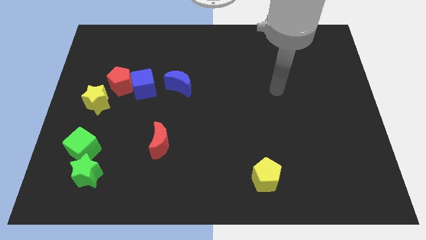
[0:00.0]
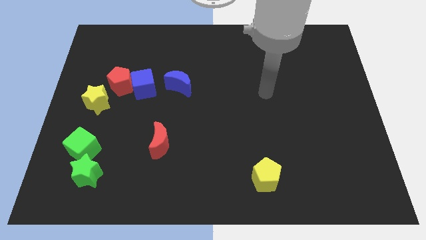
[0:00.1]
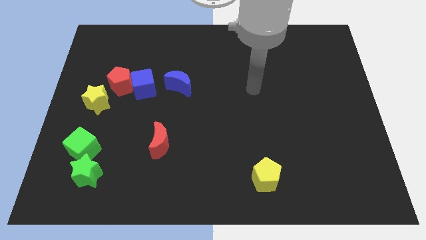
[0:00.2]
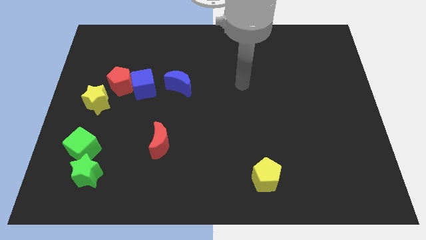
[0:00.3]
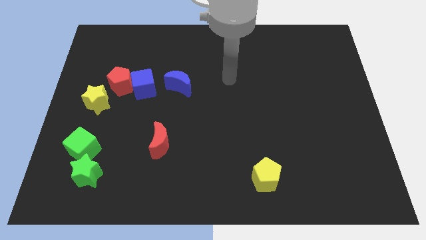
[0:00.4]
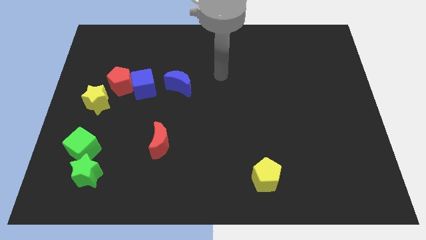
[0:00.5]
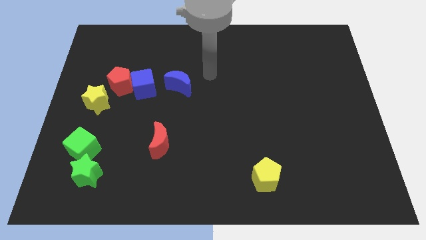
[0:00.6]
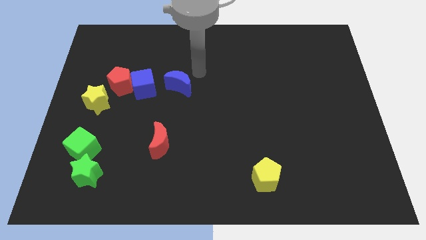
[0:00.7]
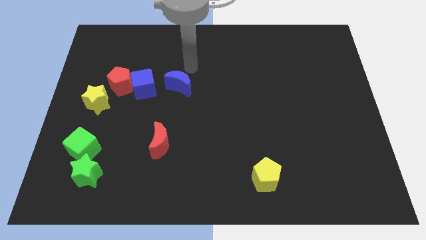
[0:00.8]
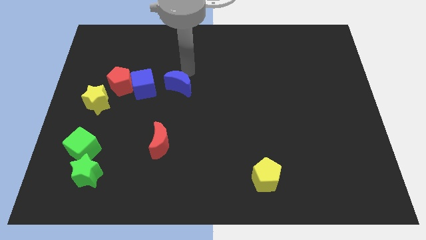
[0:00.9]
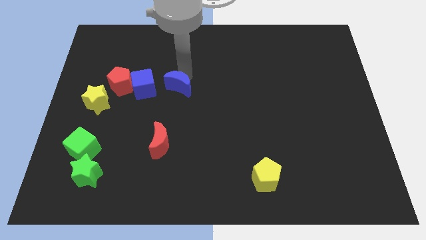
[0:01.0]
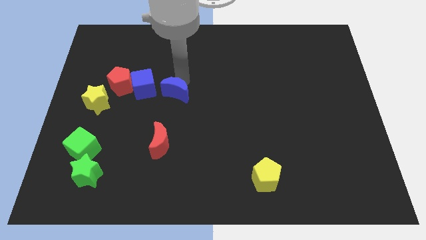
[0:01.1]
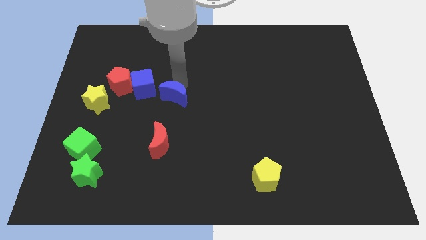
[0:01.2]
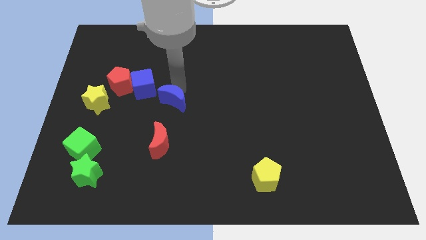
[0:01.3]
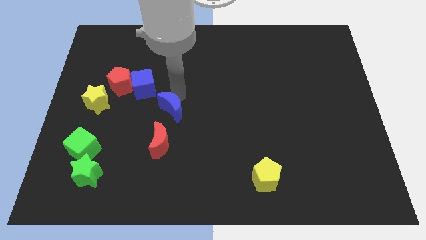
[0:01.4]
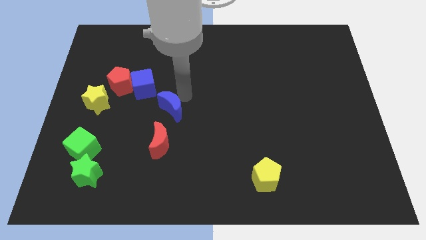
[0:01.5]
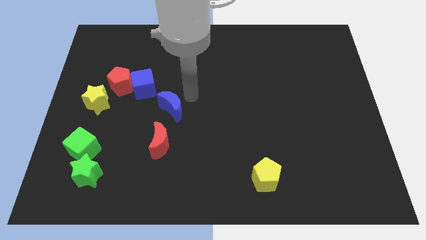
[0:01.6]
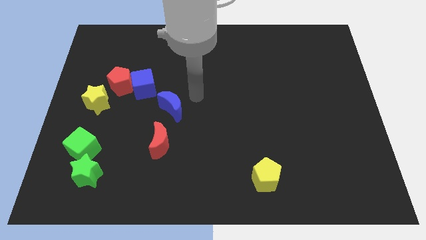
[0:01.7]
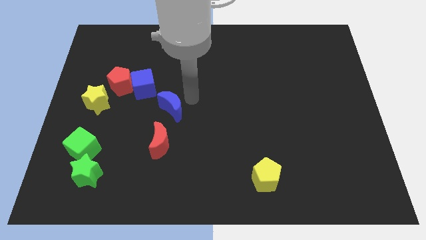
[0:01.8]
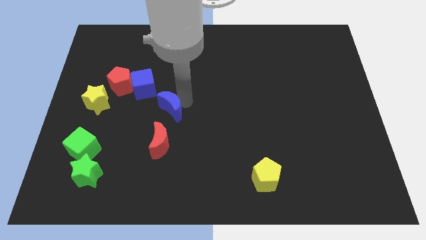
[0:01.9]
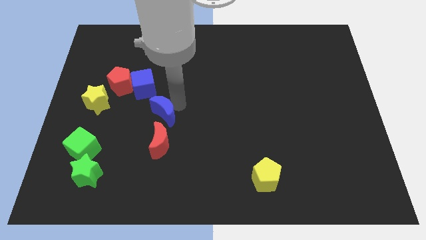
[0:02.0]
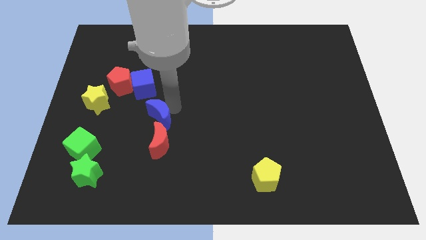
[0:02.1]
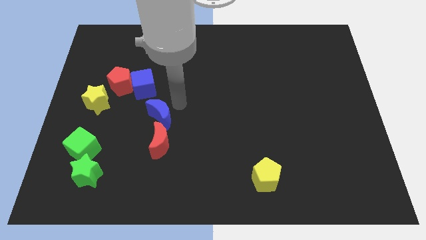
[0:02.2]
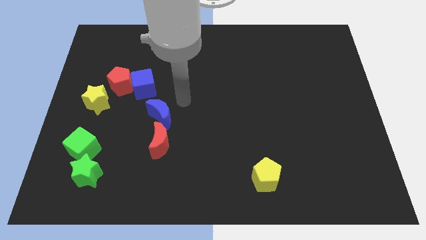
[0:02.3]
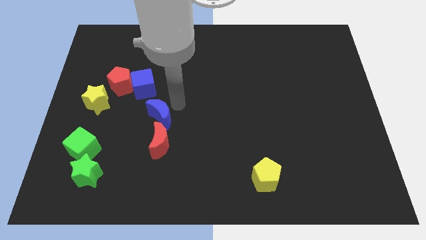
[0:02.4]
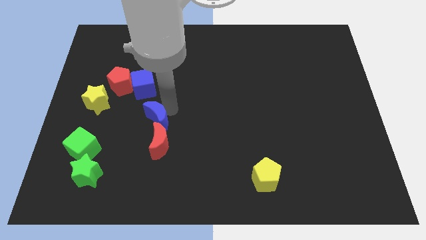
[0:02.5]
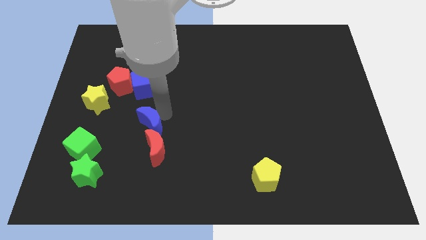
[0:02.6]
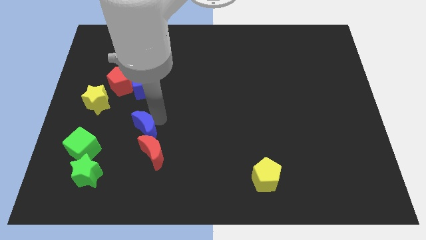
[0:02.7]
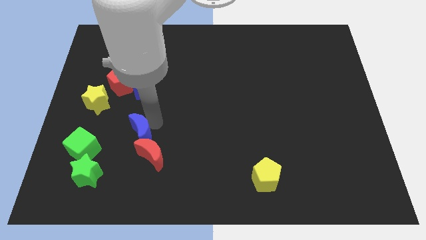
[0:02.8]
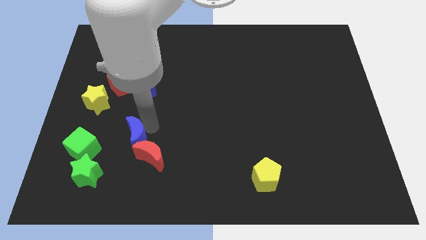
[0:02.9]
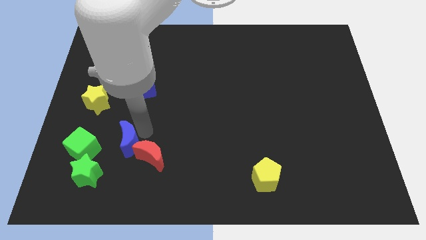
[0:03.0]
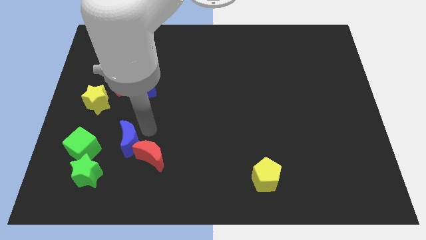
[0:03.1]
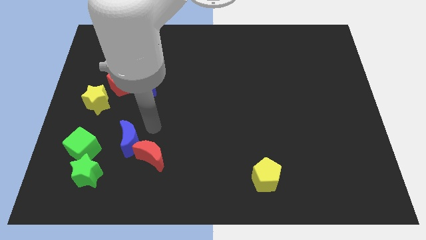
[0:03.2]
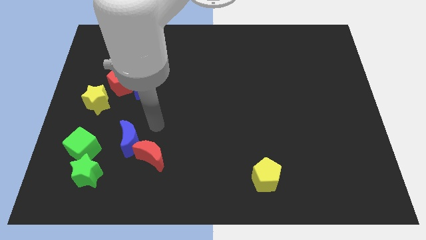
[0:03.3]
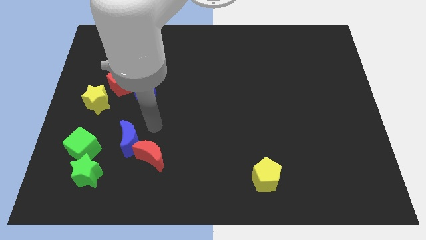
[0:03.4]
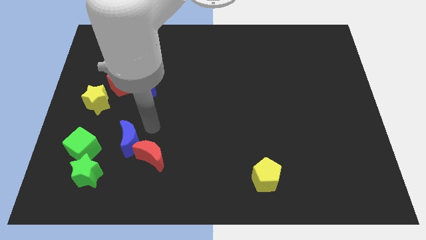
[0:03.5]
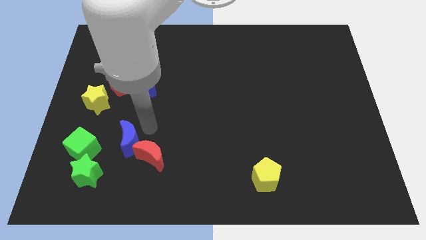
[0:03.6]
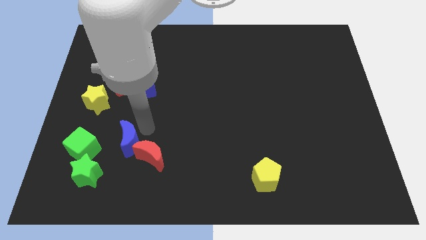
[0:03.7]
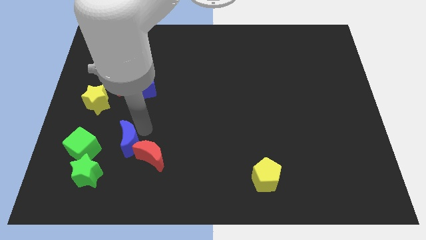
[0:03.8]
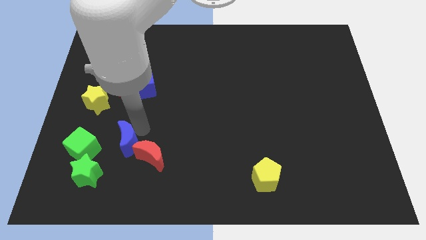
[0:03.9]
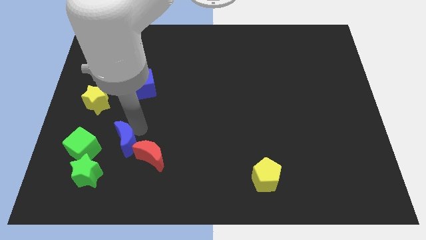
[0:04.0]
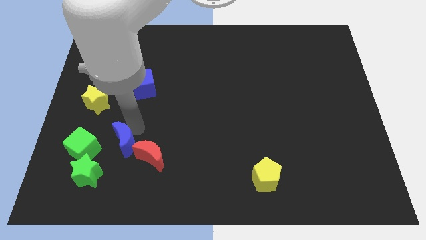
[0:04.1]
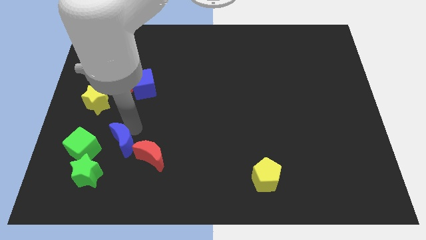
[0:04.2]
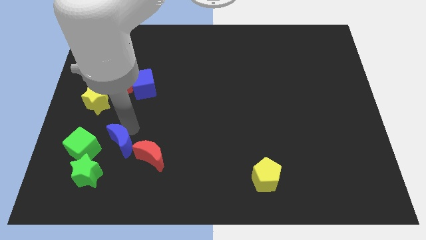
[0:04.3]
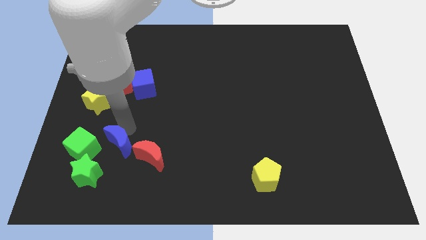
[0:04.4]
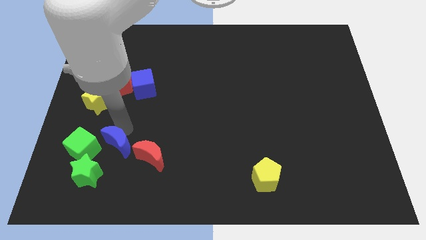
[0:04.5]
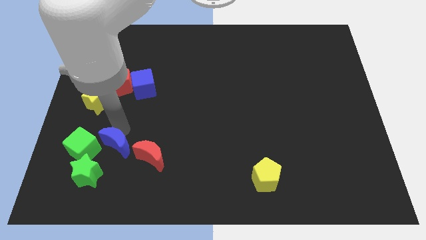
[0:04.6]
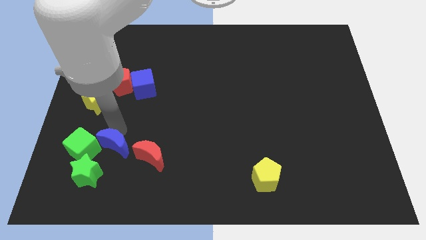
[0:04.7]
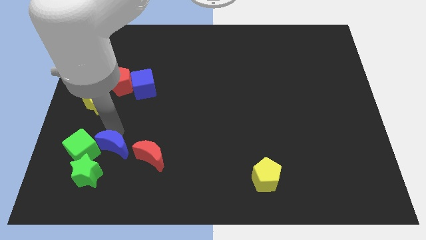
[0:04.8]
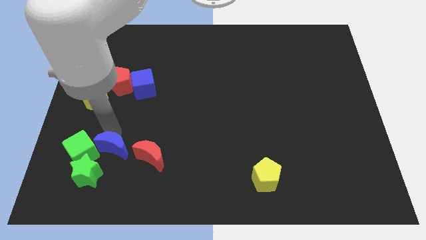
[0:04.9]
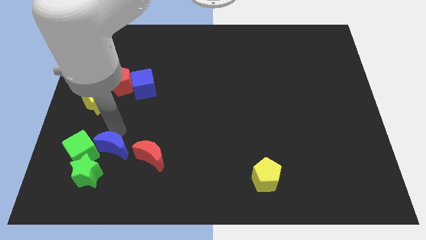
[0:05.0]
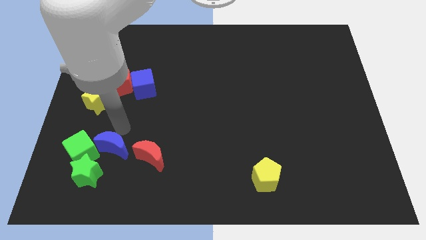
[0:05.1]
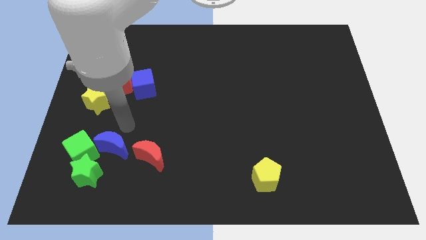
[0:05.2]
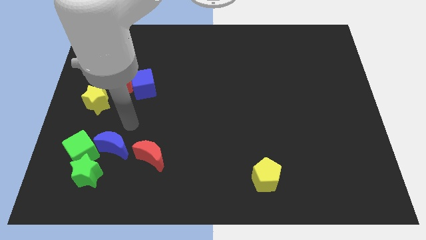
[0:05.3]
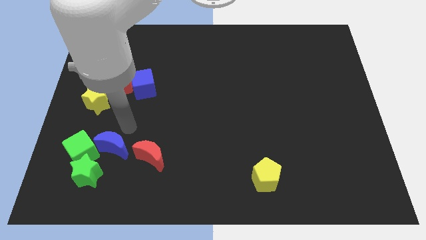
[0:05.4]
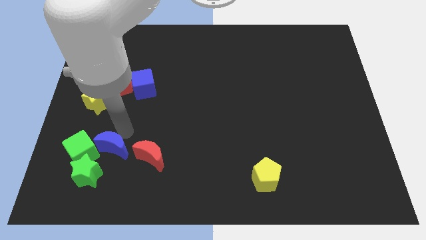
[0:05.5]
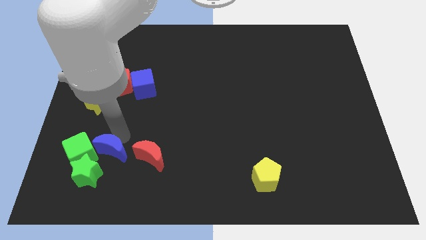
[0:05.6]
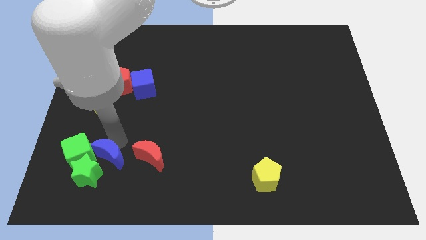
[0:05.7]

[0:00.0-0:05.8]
put the blue moon towards the green star

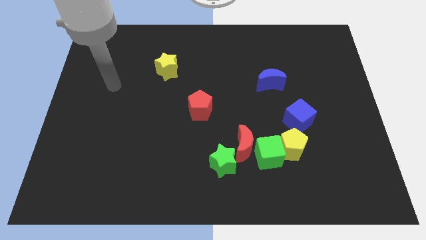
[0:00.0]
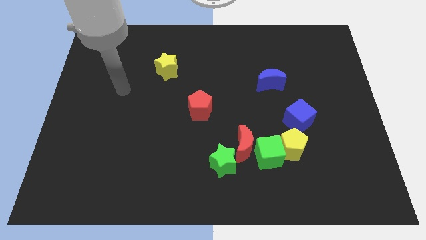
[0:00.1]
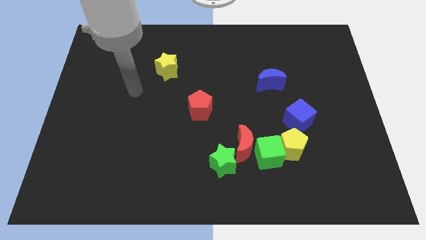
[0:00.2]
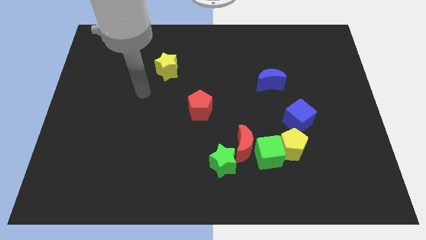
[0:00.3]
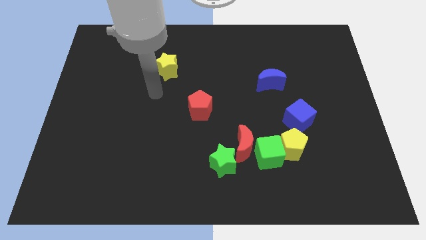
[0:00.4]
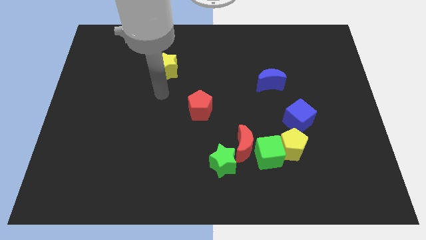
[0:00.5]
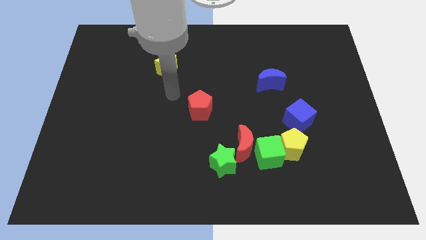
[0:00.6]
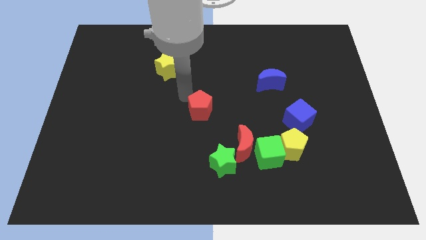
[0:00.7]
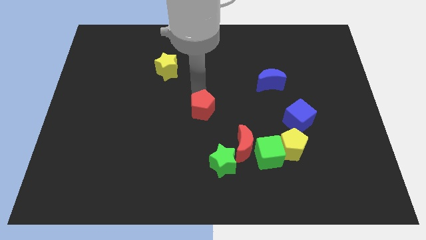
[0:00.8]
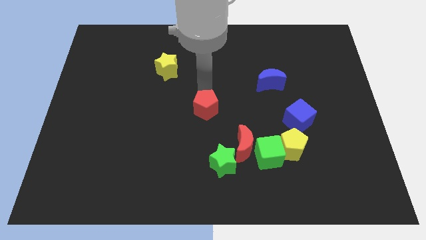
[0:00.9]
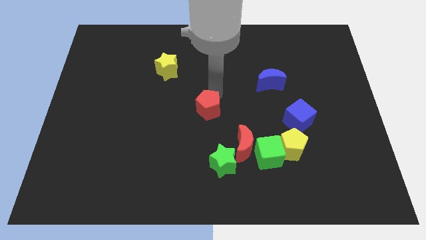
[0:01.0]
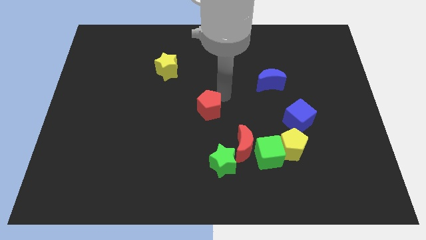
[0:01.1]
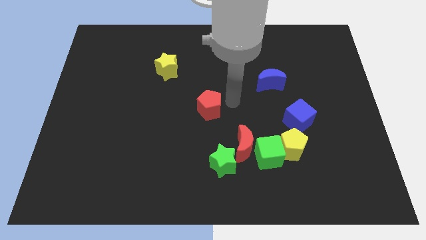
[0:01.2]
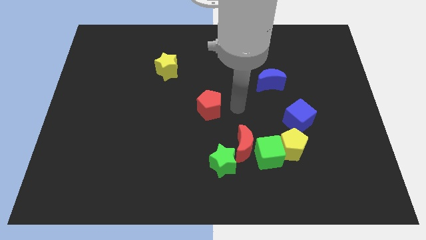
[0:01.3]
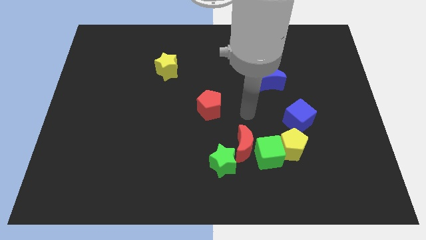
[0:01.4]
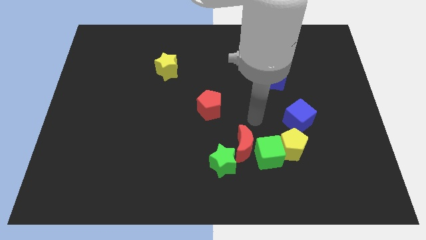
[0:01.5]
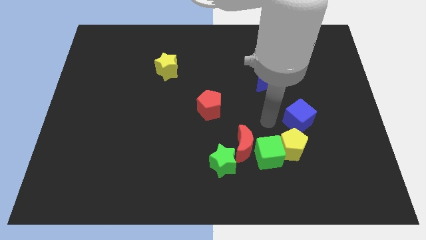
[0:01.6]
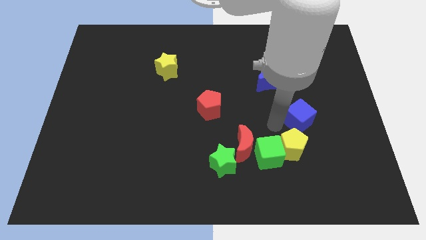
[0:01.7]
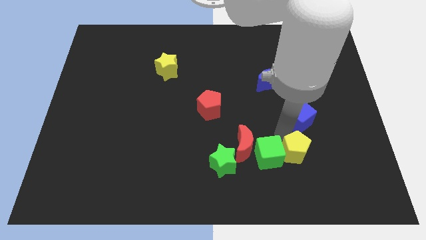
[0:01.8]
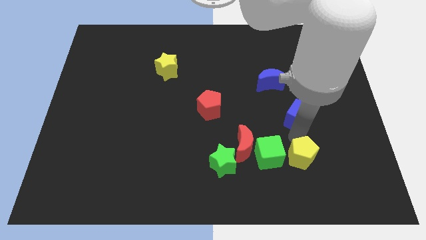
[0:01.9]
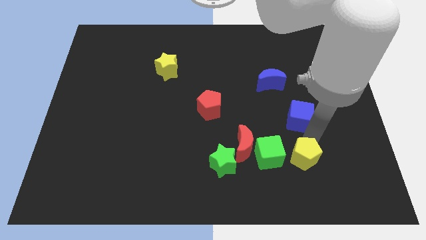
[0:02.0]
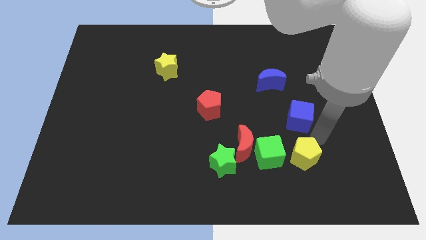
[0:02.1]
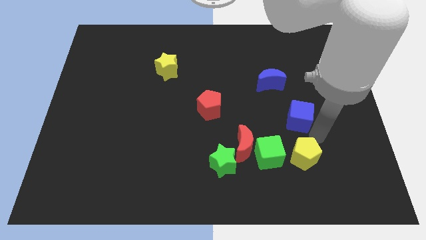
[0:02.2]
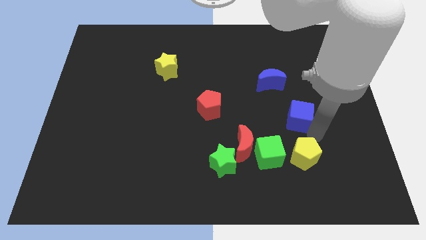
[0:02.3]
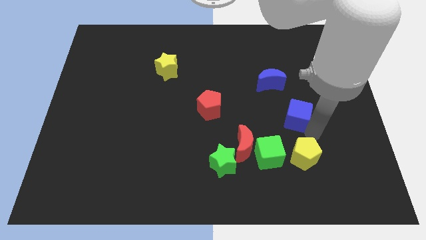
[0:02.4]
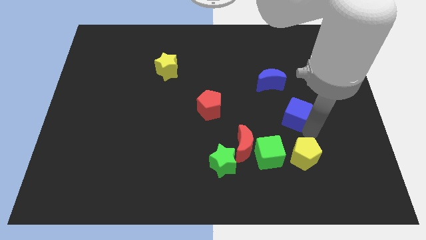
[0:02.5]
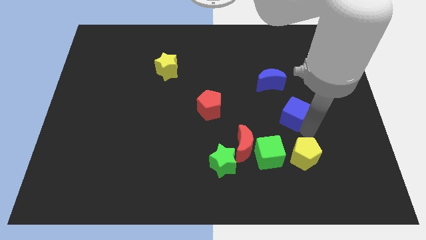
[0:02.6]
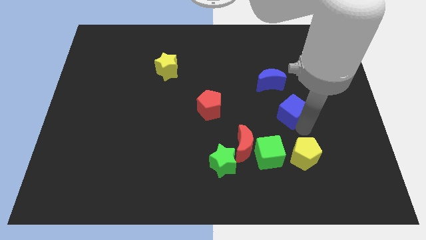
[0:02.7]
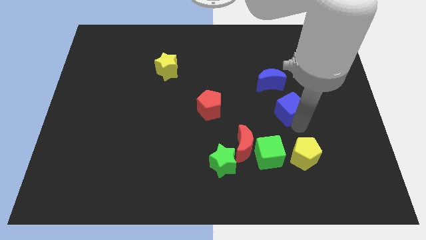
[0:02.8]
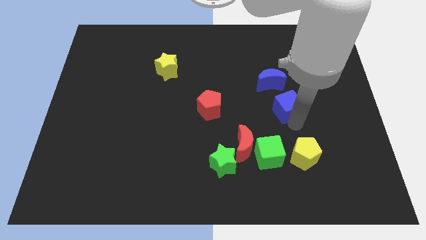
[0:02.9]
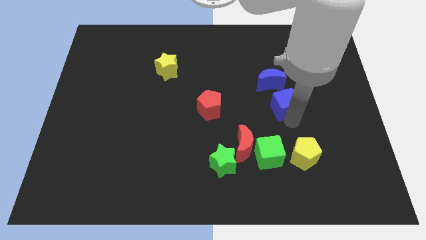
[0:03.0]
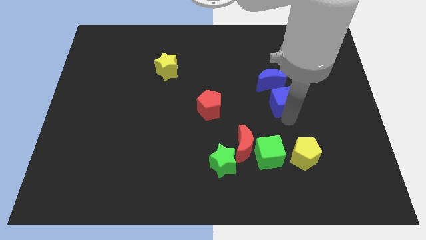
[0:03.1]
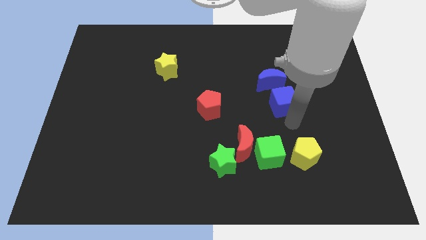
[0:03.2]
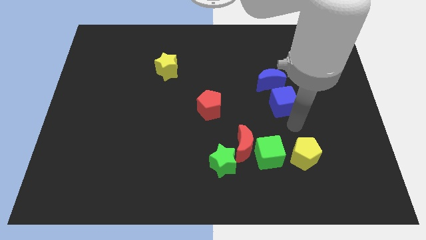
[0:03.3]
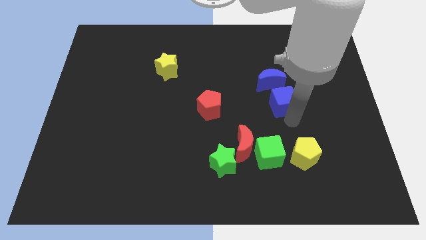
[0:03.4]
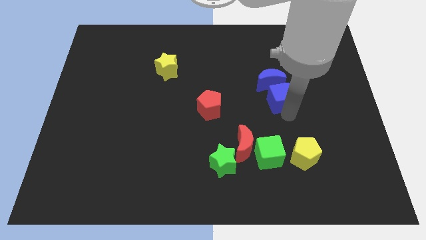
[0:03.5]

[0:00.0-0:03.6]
put the blue cube next to the blue moon
